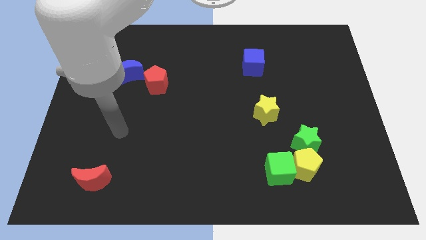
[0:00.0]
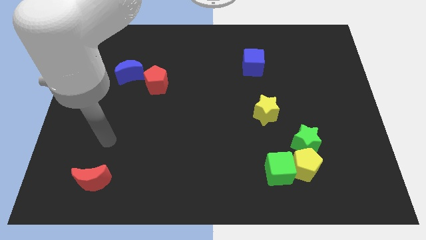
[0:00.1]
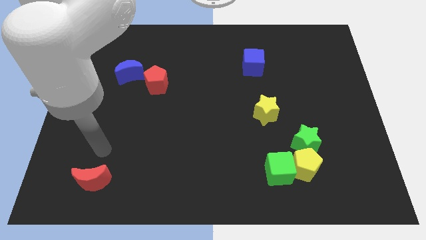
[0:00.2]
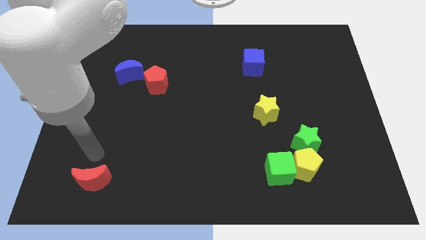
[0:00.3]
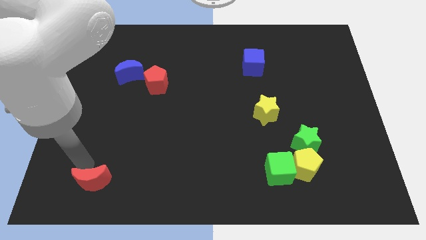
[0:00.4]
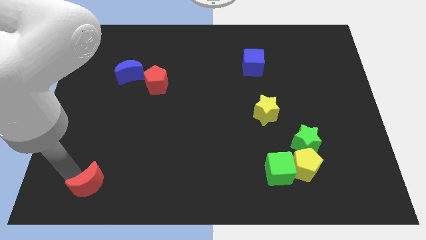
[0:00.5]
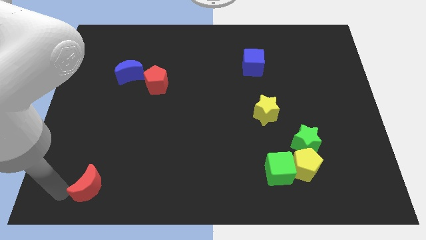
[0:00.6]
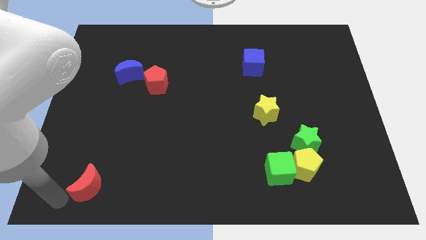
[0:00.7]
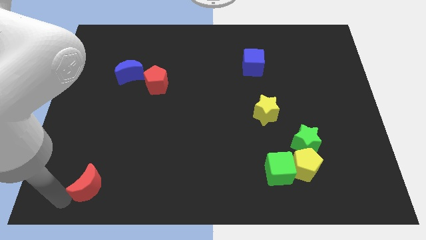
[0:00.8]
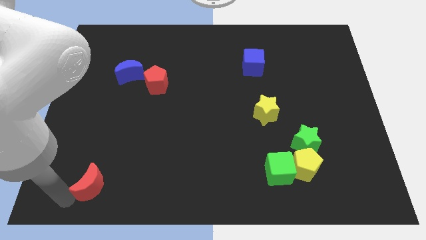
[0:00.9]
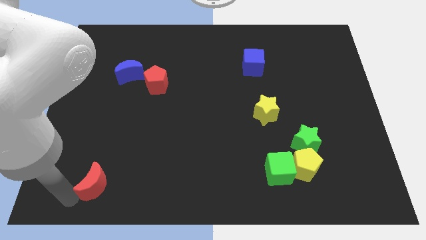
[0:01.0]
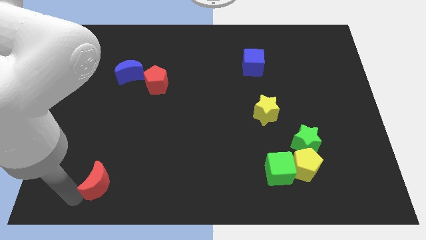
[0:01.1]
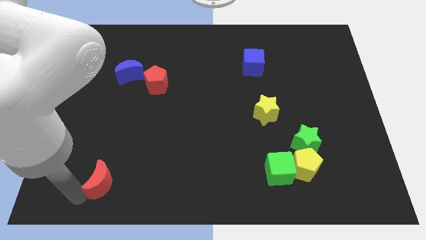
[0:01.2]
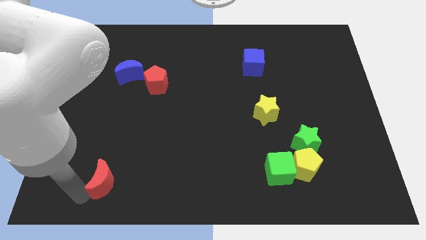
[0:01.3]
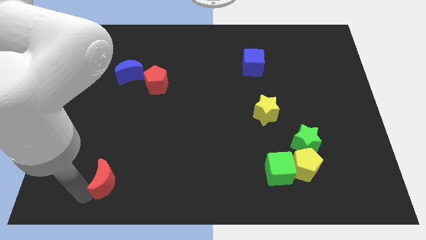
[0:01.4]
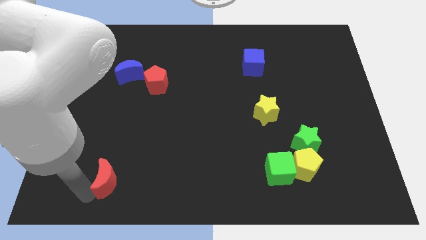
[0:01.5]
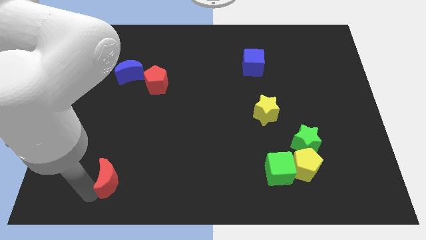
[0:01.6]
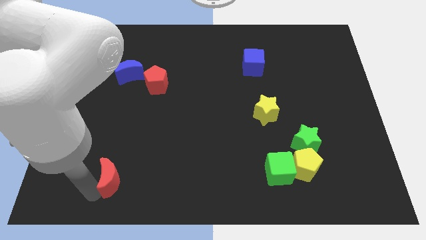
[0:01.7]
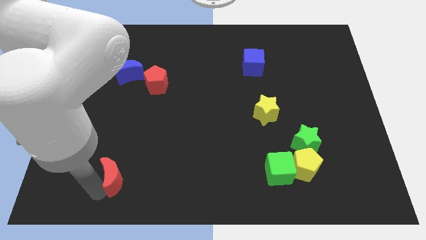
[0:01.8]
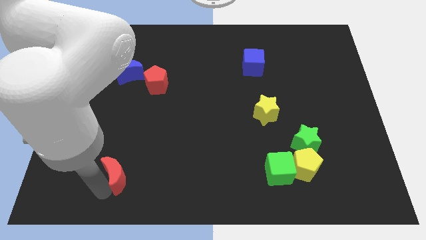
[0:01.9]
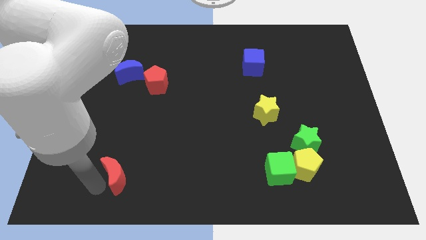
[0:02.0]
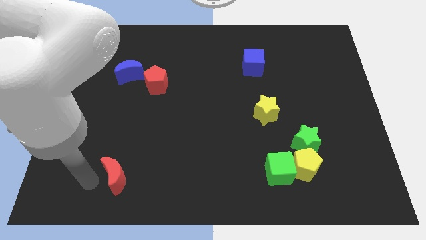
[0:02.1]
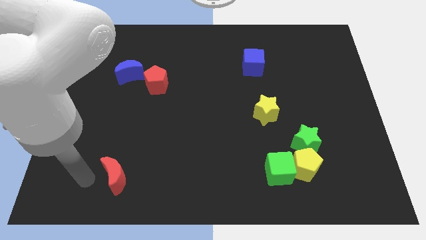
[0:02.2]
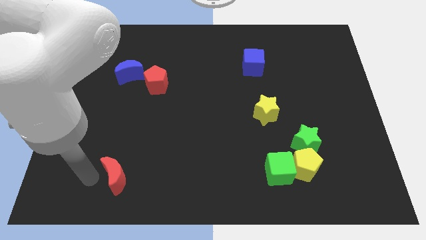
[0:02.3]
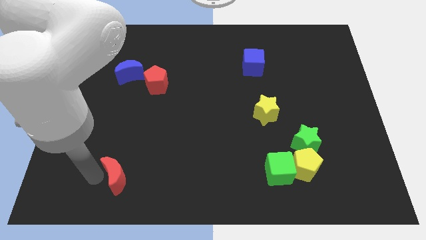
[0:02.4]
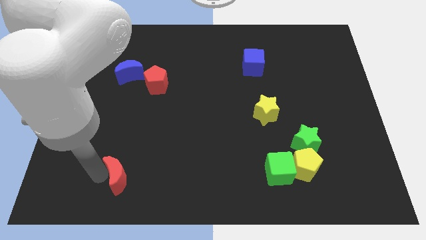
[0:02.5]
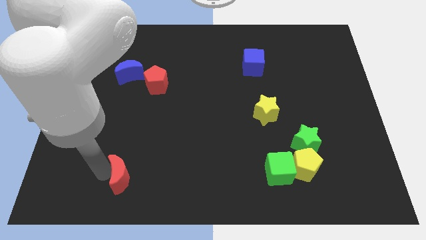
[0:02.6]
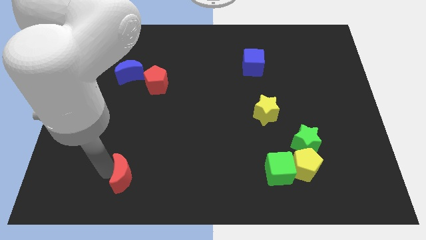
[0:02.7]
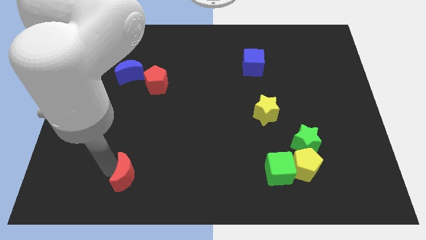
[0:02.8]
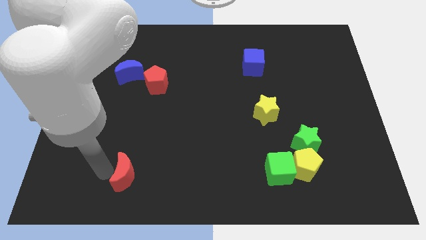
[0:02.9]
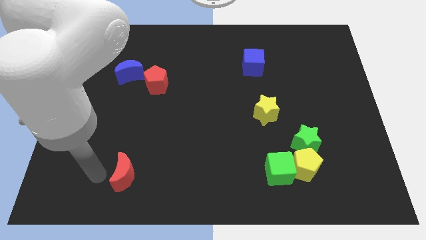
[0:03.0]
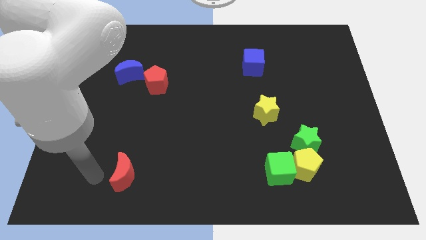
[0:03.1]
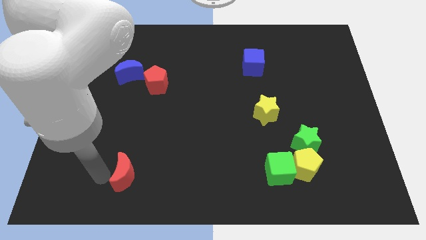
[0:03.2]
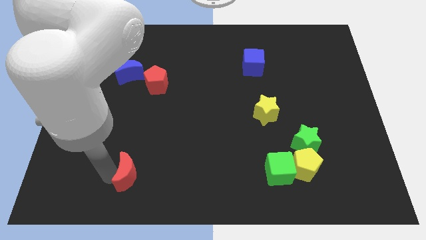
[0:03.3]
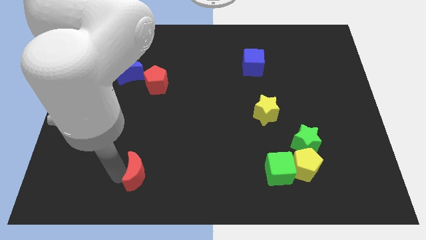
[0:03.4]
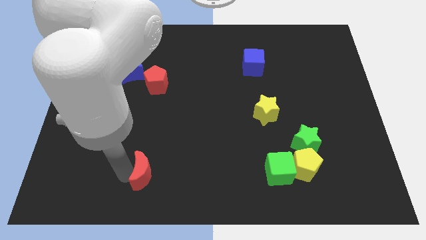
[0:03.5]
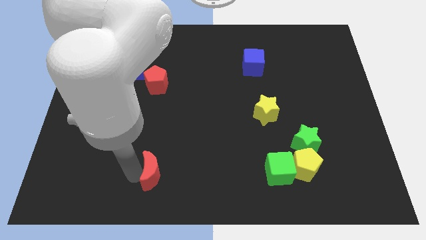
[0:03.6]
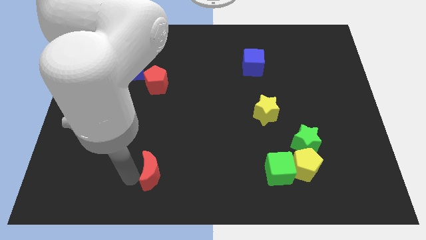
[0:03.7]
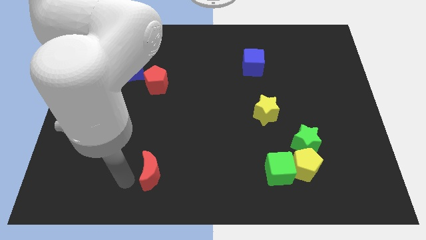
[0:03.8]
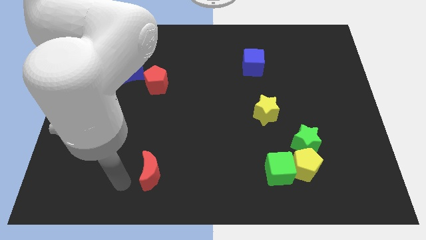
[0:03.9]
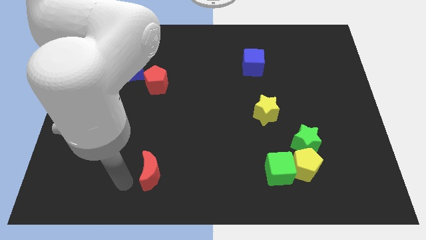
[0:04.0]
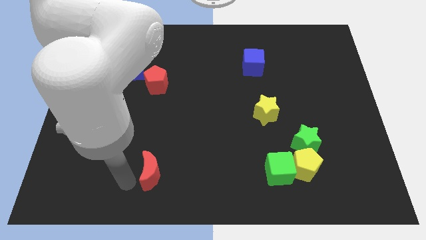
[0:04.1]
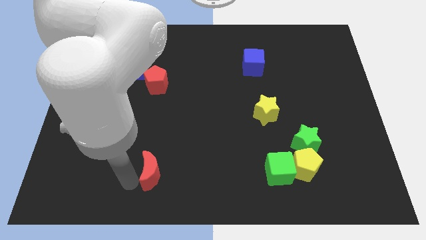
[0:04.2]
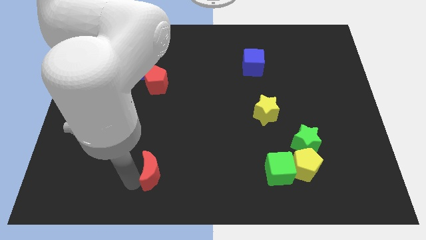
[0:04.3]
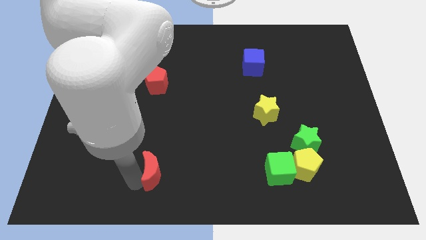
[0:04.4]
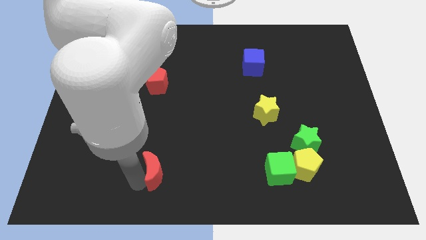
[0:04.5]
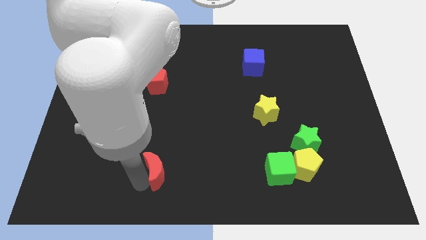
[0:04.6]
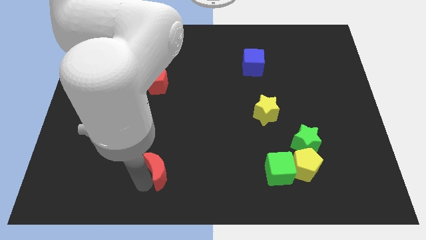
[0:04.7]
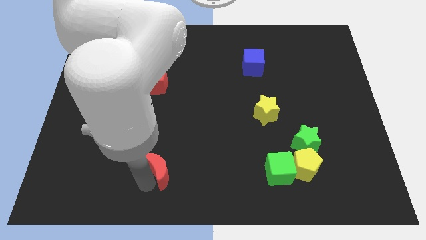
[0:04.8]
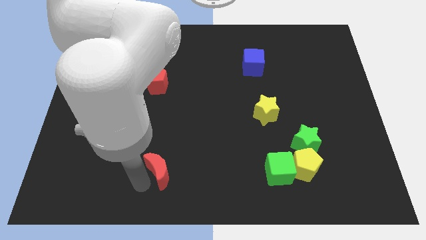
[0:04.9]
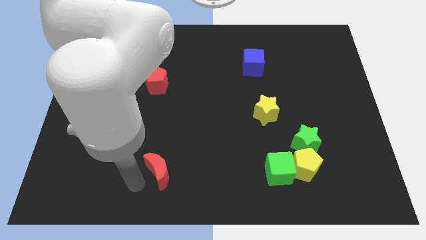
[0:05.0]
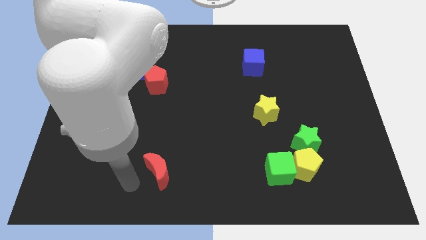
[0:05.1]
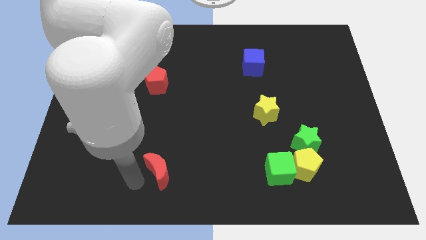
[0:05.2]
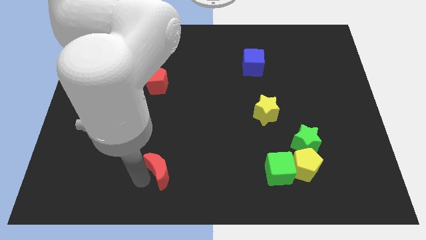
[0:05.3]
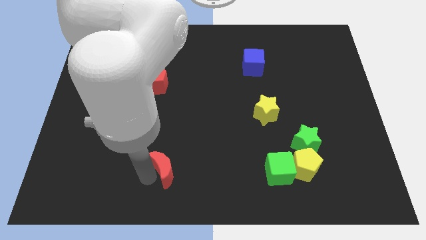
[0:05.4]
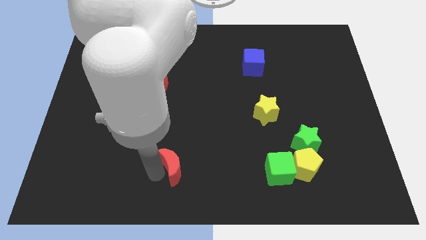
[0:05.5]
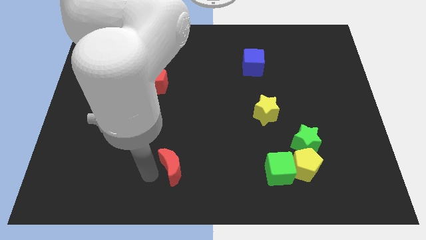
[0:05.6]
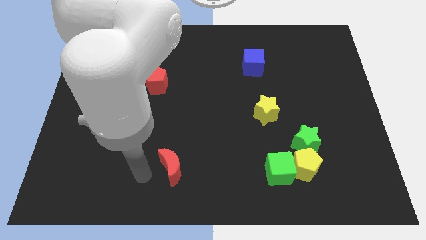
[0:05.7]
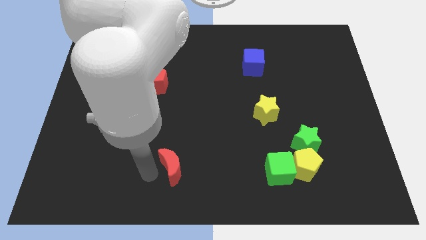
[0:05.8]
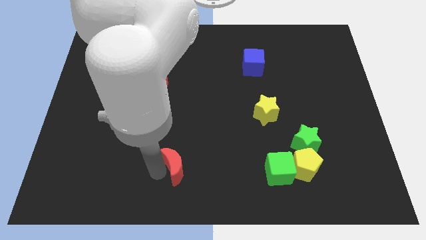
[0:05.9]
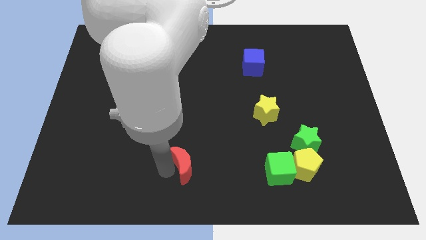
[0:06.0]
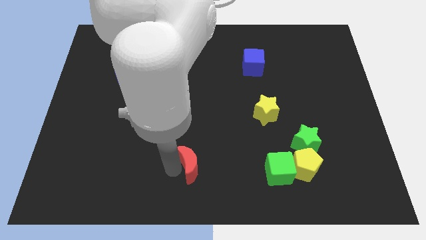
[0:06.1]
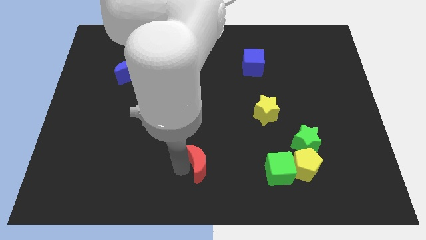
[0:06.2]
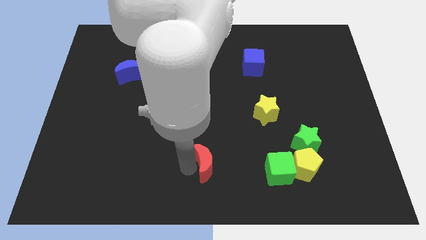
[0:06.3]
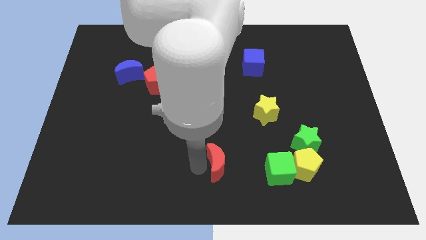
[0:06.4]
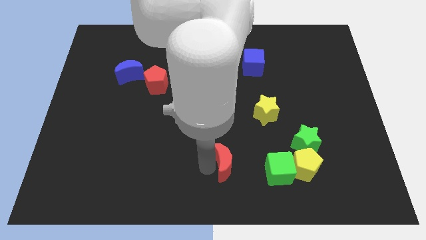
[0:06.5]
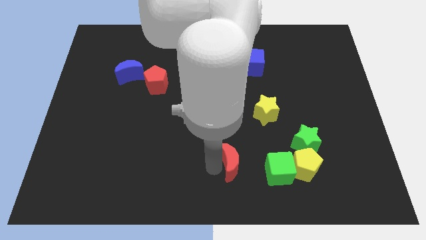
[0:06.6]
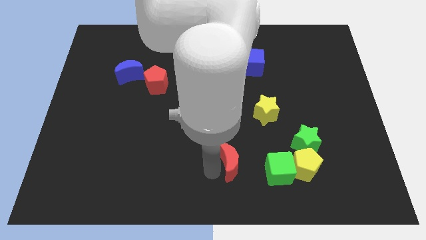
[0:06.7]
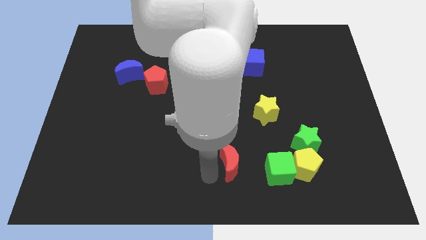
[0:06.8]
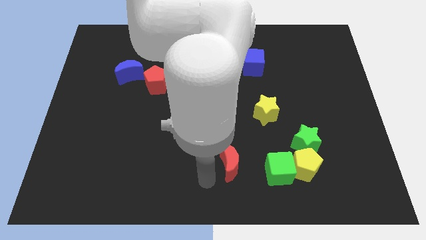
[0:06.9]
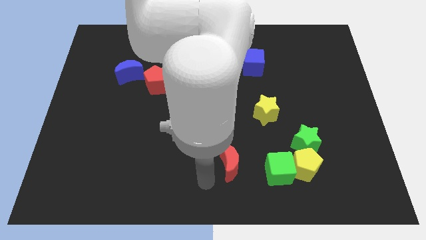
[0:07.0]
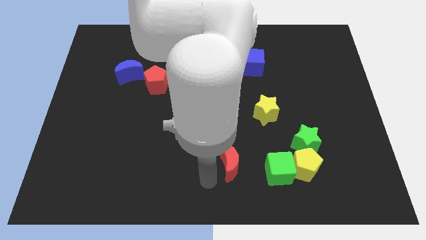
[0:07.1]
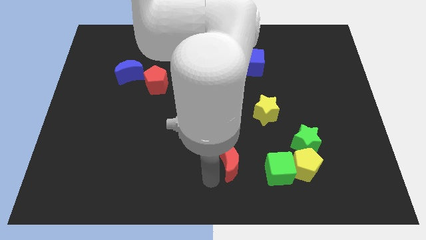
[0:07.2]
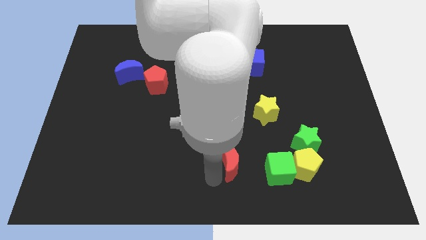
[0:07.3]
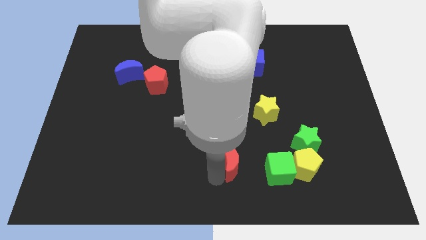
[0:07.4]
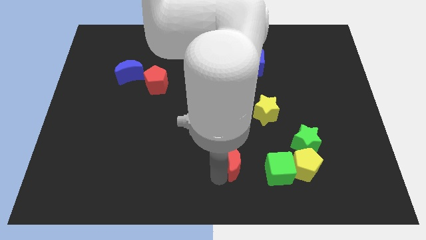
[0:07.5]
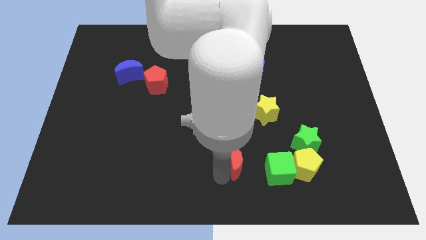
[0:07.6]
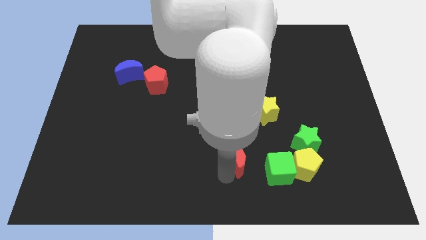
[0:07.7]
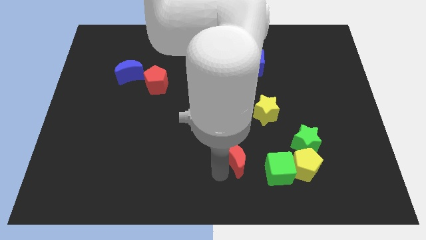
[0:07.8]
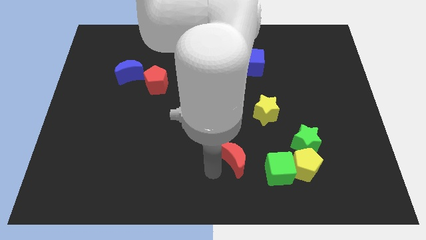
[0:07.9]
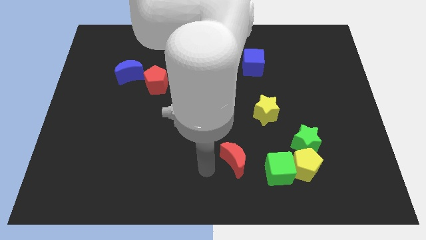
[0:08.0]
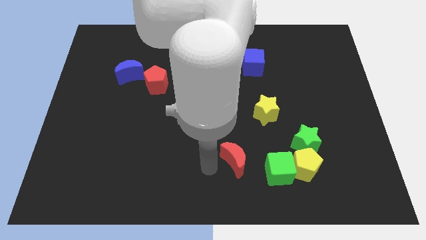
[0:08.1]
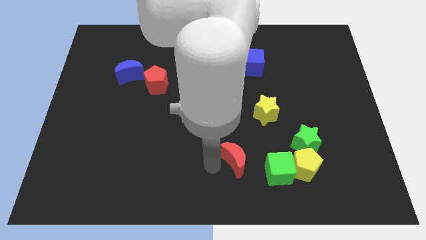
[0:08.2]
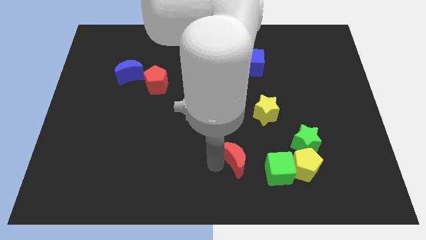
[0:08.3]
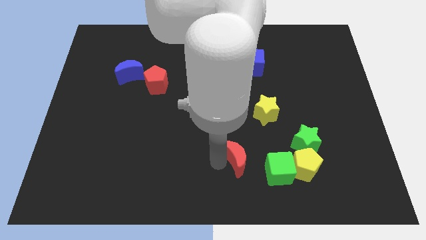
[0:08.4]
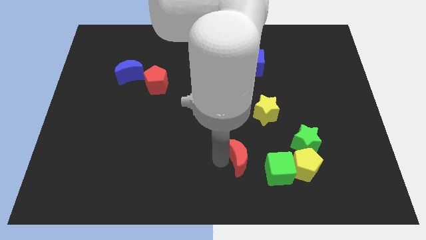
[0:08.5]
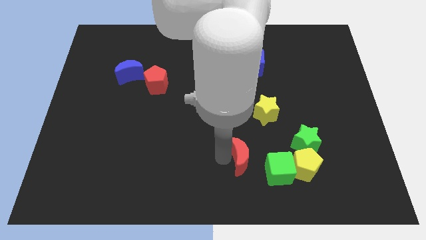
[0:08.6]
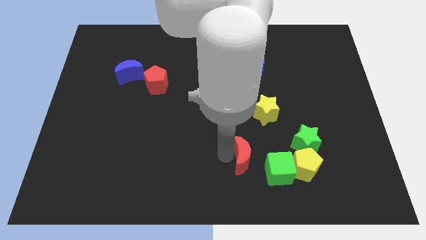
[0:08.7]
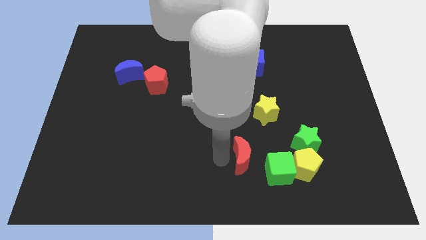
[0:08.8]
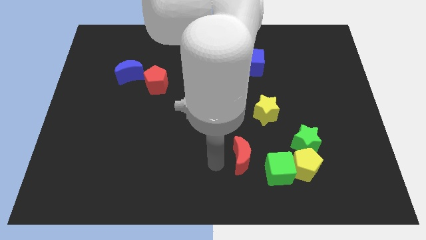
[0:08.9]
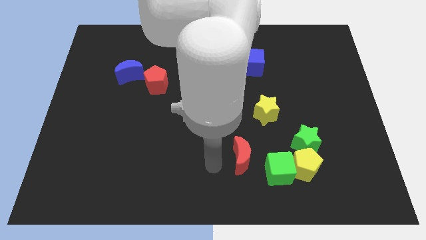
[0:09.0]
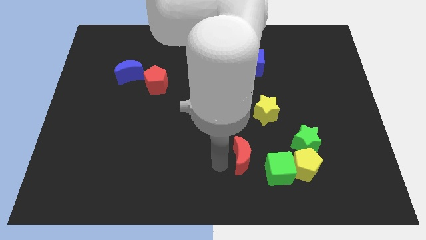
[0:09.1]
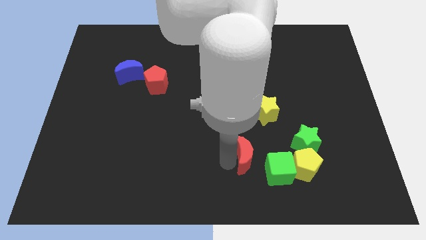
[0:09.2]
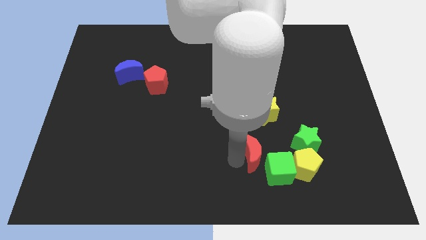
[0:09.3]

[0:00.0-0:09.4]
push the red moon to the bottom side of the yellow star
